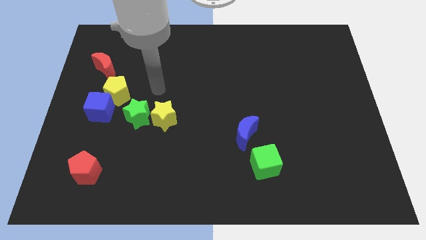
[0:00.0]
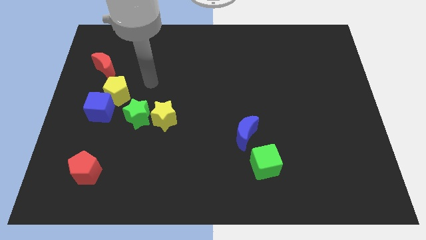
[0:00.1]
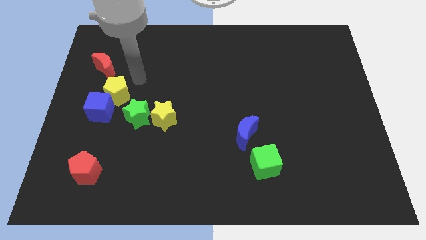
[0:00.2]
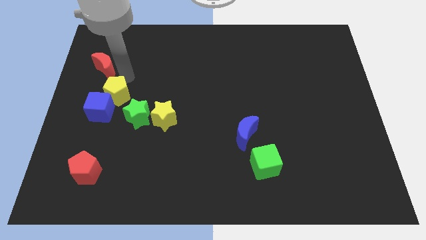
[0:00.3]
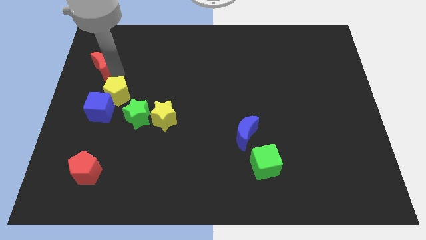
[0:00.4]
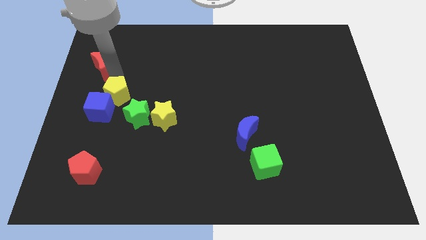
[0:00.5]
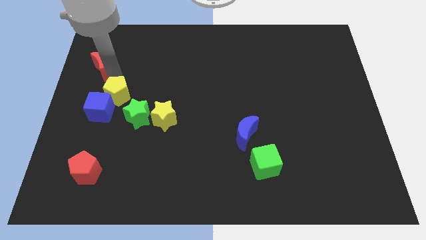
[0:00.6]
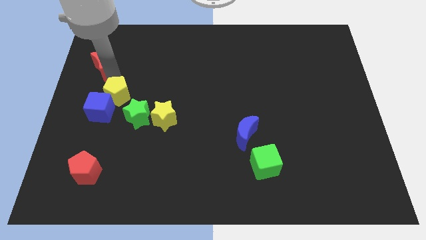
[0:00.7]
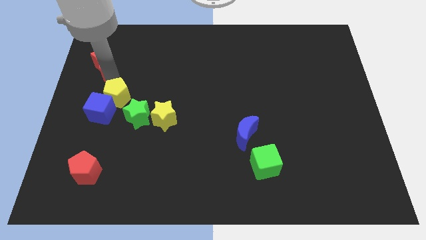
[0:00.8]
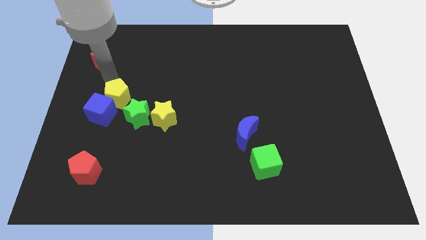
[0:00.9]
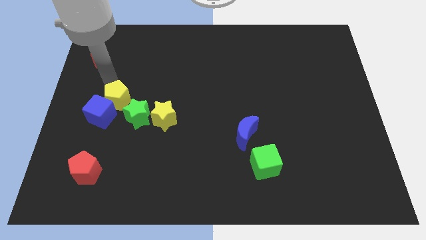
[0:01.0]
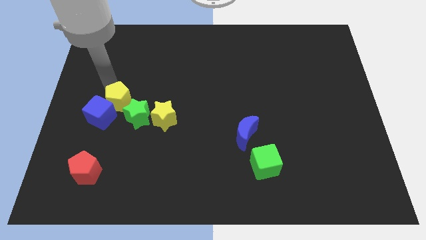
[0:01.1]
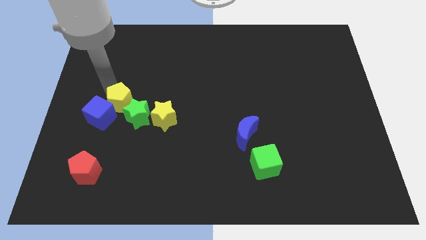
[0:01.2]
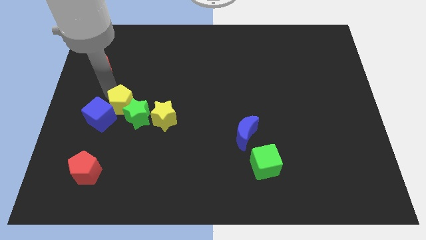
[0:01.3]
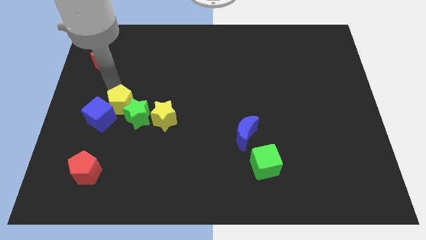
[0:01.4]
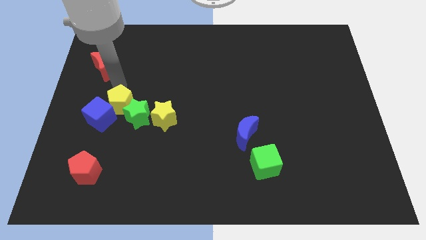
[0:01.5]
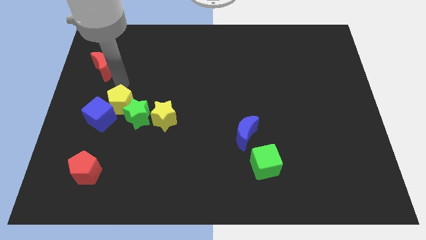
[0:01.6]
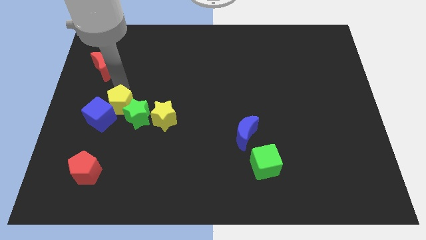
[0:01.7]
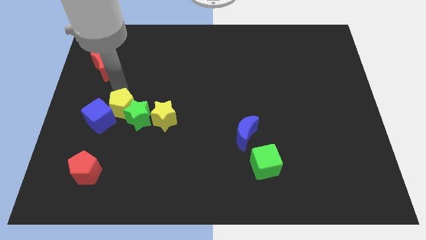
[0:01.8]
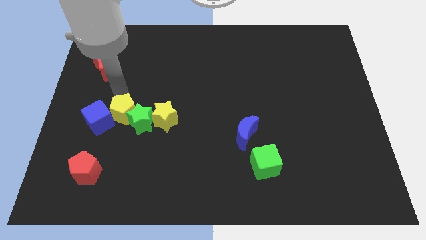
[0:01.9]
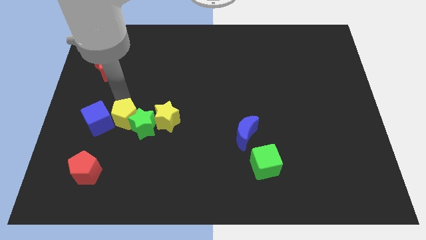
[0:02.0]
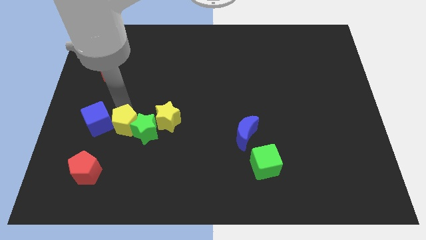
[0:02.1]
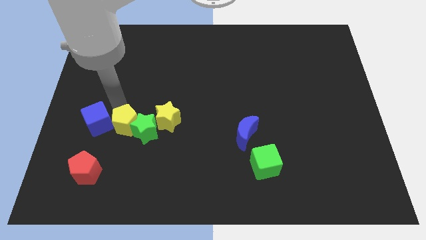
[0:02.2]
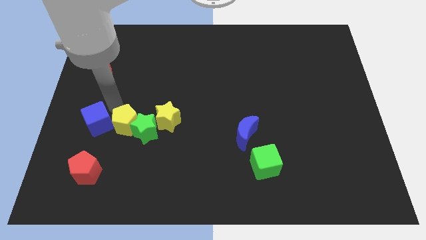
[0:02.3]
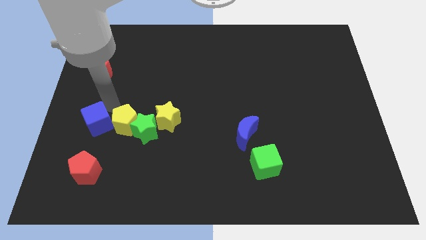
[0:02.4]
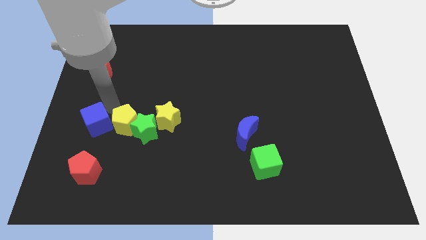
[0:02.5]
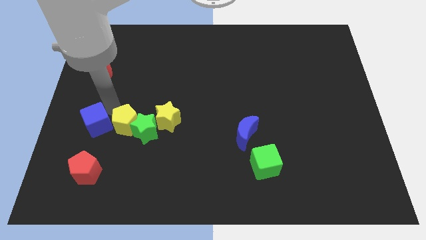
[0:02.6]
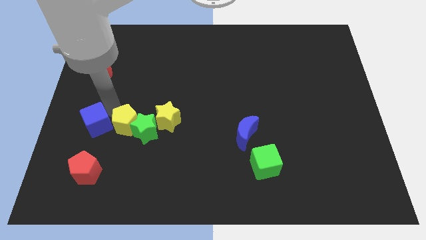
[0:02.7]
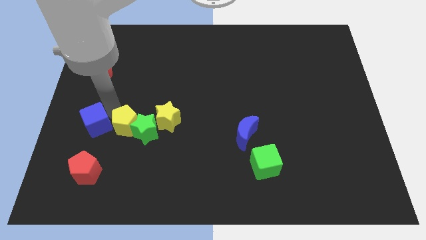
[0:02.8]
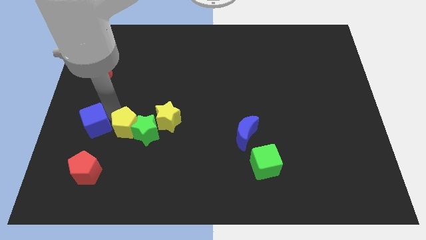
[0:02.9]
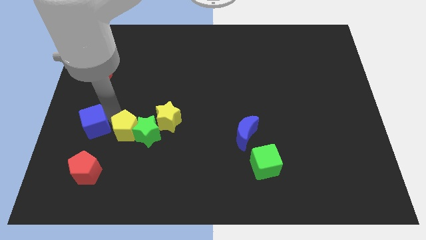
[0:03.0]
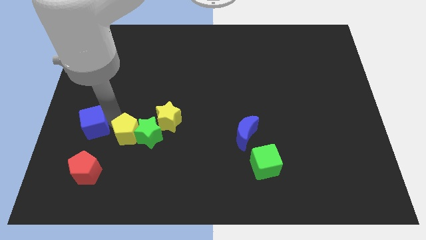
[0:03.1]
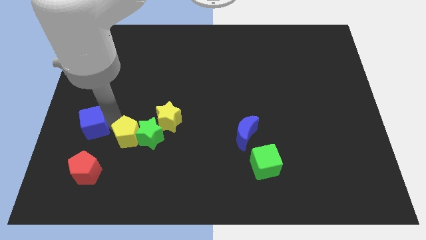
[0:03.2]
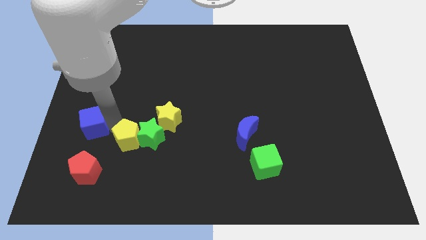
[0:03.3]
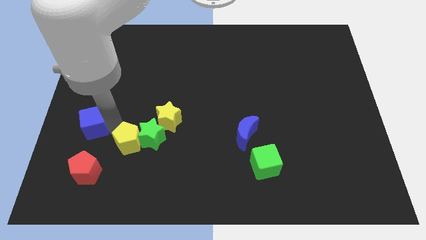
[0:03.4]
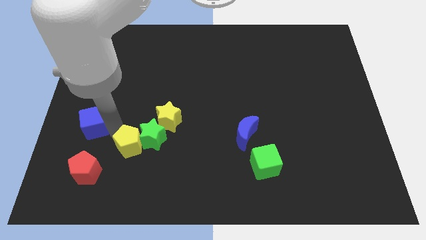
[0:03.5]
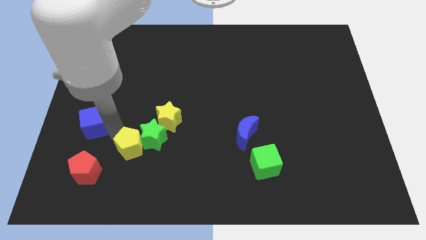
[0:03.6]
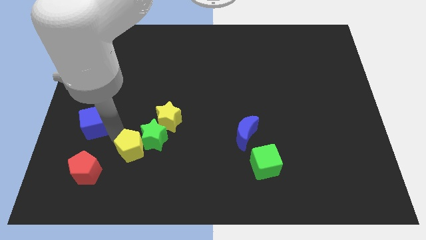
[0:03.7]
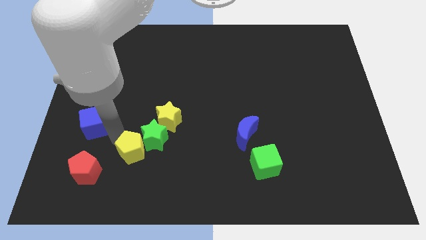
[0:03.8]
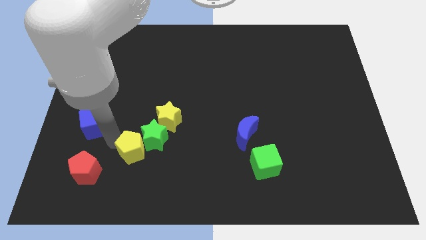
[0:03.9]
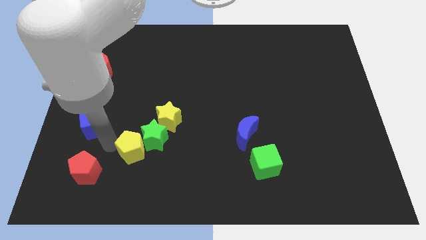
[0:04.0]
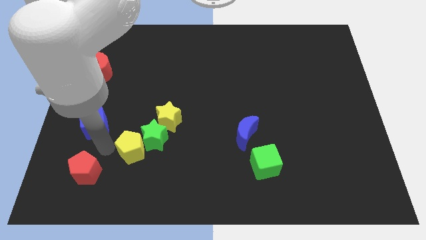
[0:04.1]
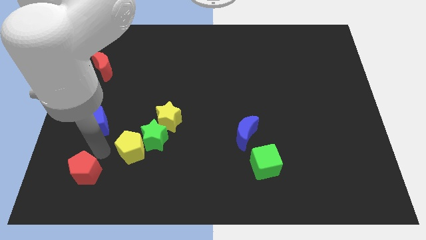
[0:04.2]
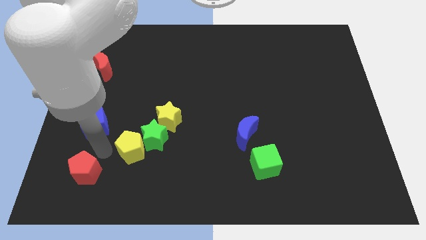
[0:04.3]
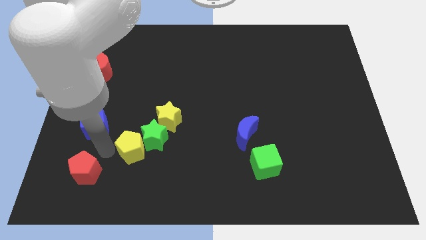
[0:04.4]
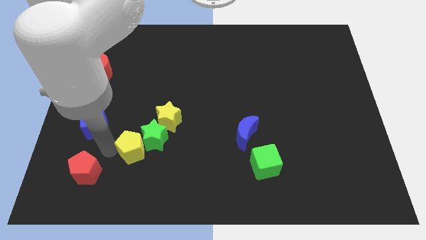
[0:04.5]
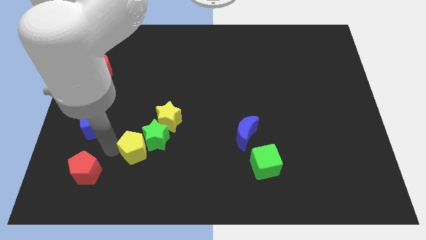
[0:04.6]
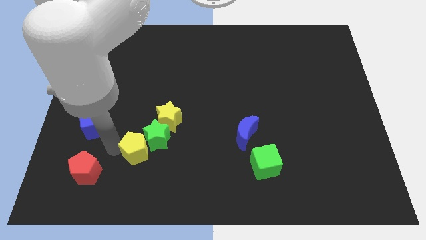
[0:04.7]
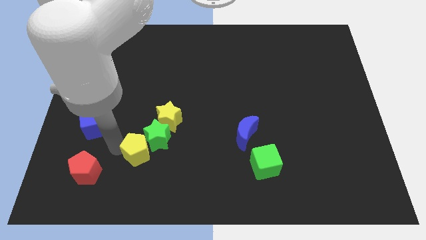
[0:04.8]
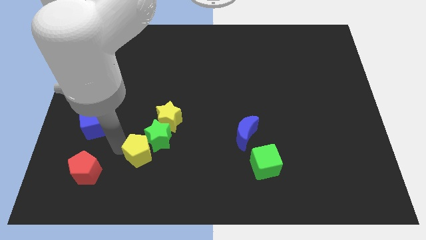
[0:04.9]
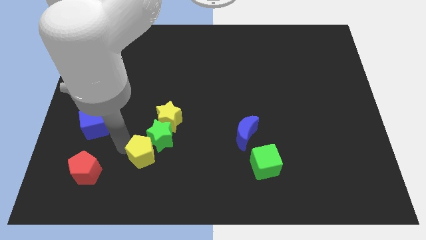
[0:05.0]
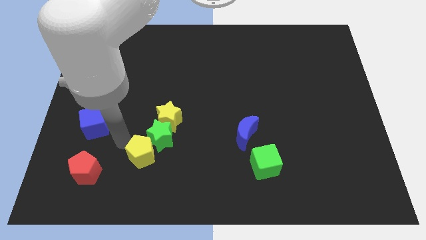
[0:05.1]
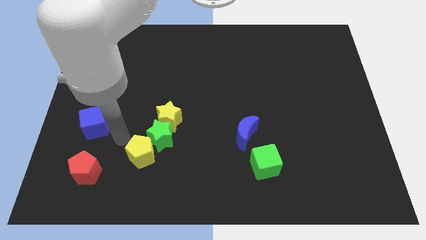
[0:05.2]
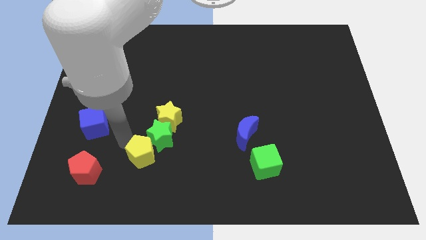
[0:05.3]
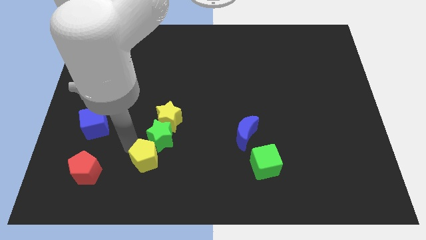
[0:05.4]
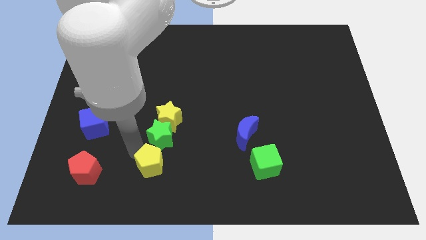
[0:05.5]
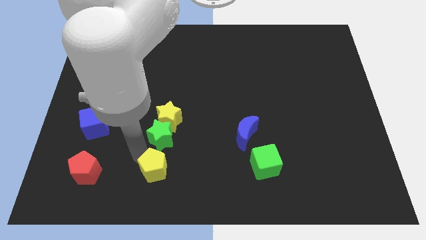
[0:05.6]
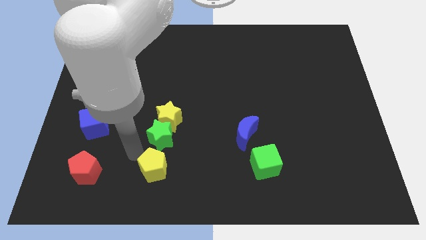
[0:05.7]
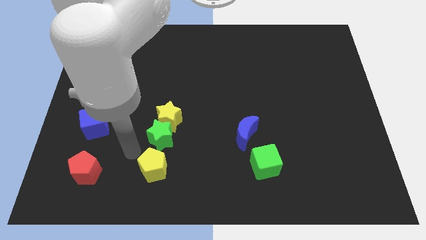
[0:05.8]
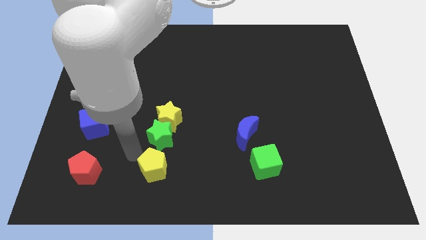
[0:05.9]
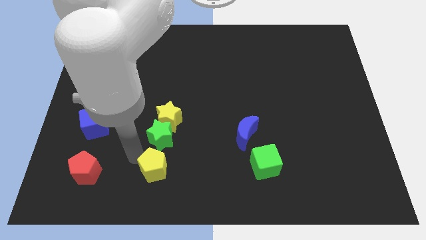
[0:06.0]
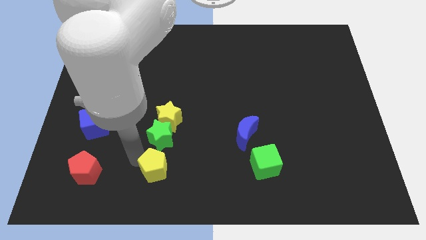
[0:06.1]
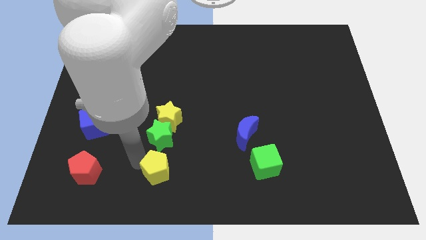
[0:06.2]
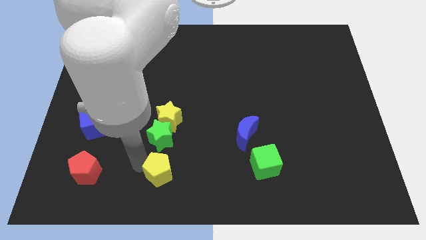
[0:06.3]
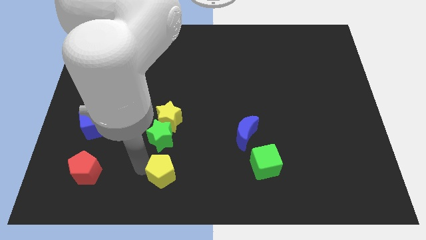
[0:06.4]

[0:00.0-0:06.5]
slide the yellow pentagon to the bottom side

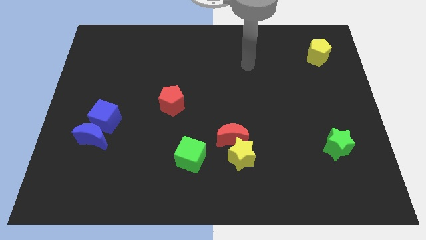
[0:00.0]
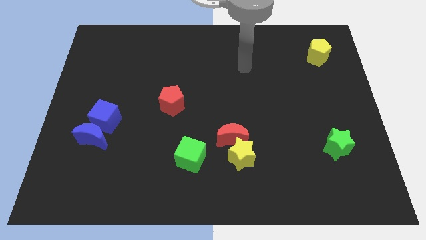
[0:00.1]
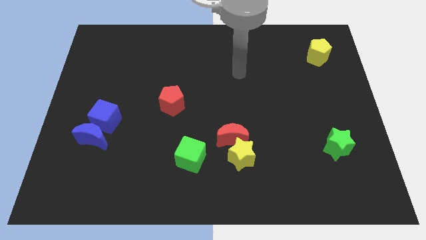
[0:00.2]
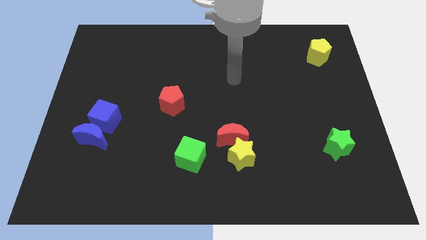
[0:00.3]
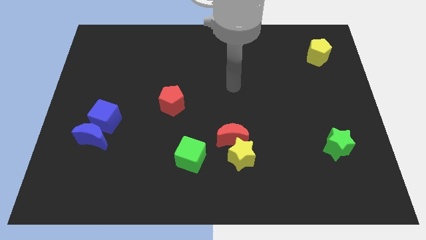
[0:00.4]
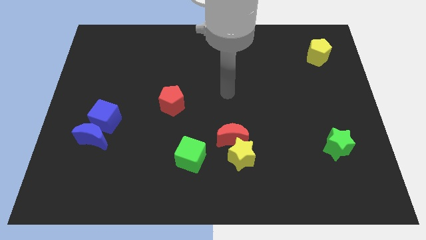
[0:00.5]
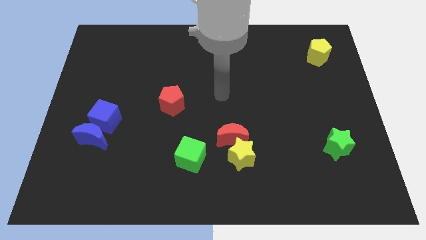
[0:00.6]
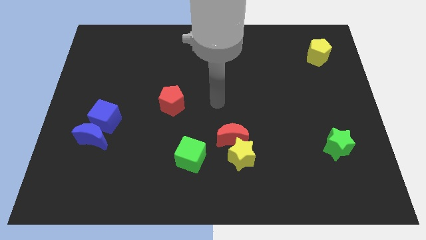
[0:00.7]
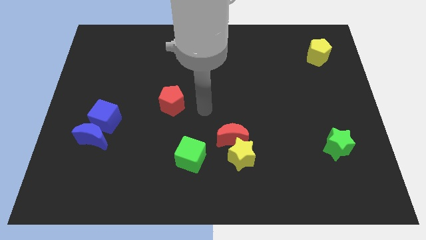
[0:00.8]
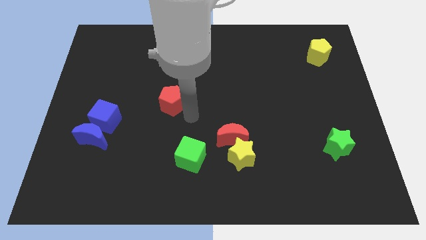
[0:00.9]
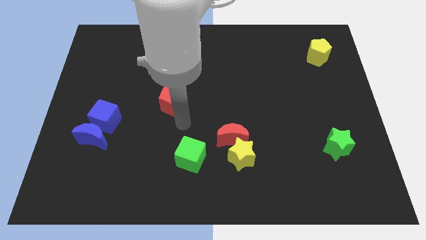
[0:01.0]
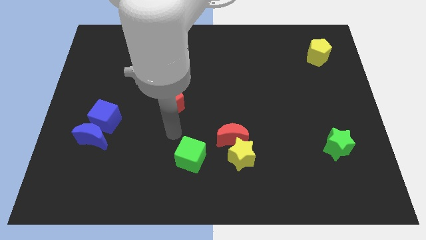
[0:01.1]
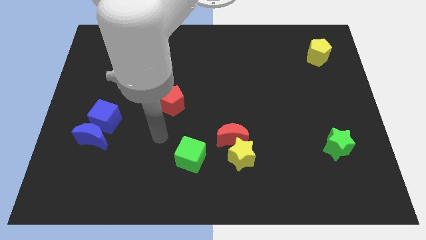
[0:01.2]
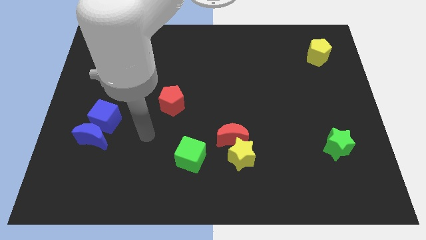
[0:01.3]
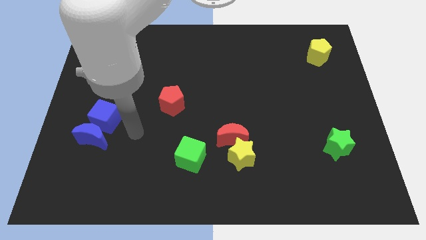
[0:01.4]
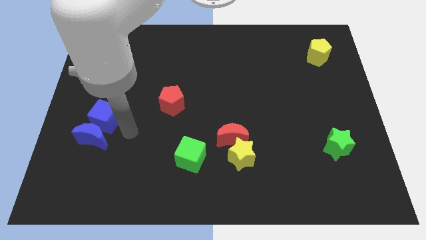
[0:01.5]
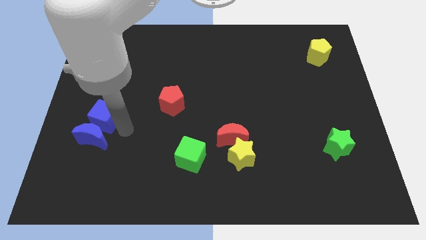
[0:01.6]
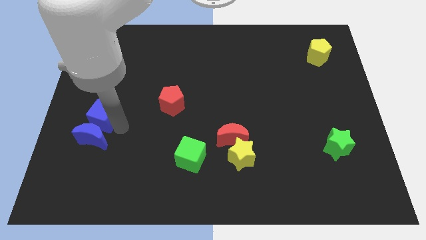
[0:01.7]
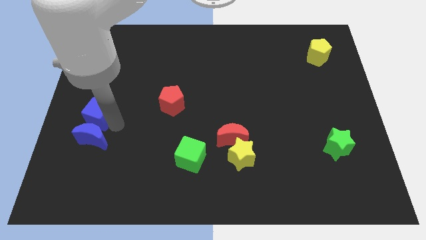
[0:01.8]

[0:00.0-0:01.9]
push the blue cube to the left side
